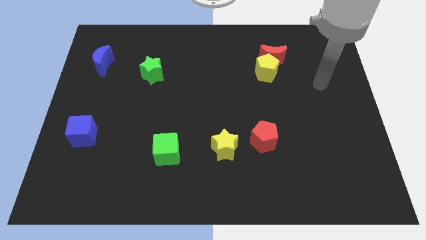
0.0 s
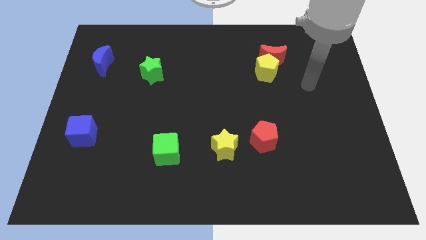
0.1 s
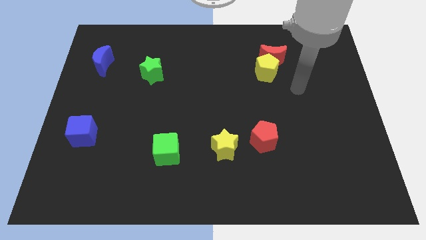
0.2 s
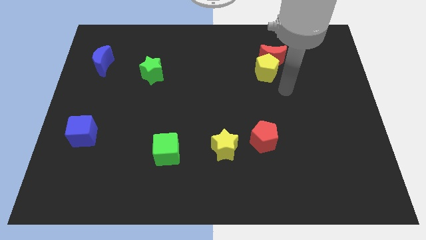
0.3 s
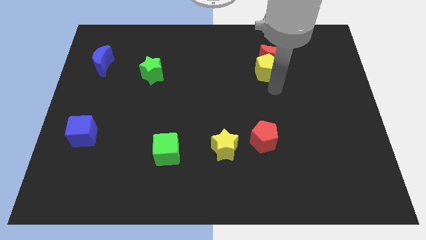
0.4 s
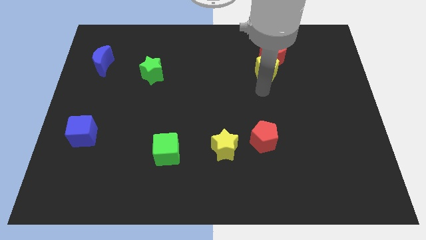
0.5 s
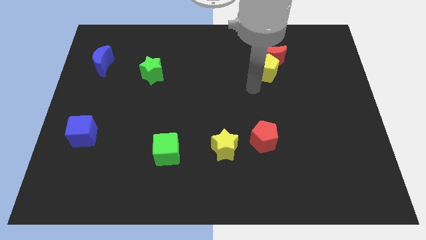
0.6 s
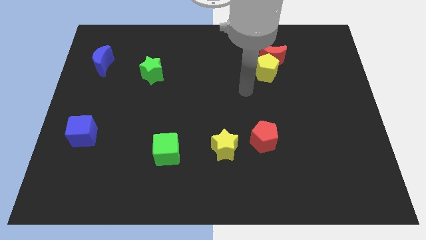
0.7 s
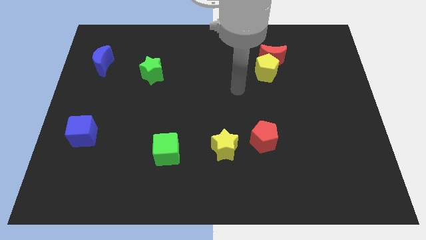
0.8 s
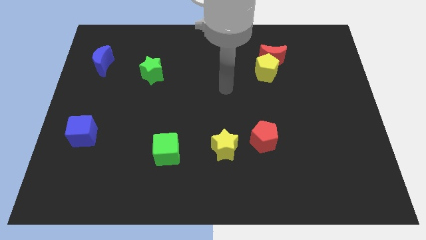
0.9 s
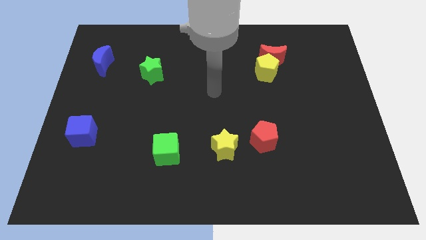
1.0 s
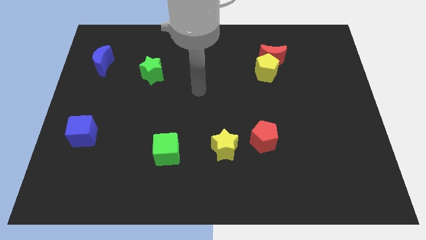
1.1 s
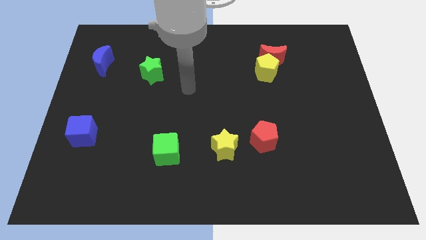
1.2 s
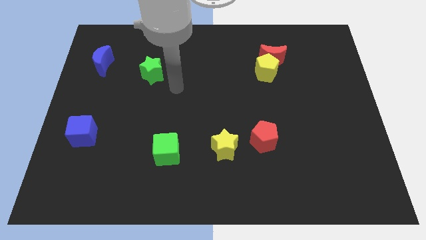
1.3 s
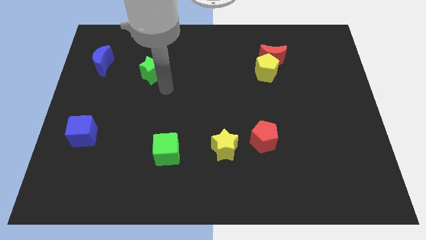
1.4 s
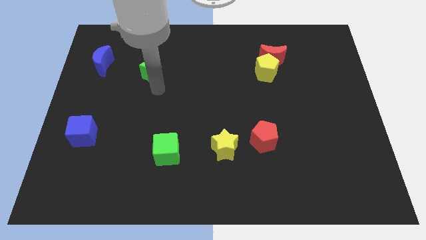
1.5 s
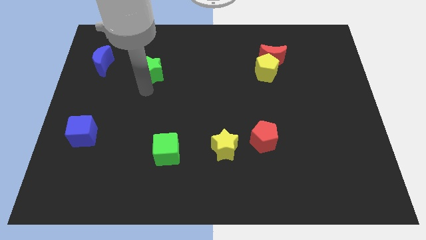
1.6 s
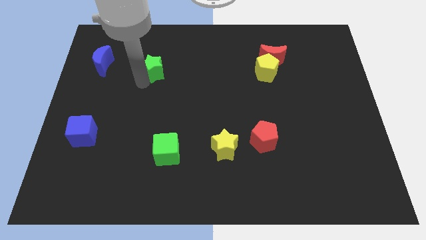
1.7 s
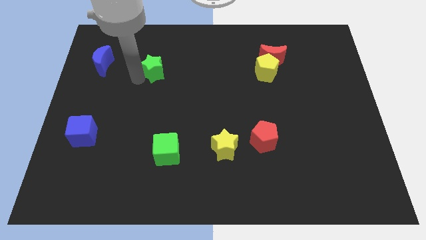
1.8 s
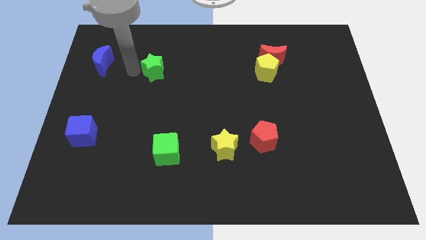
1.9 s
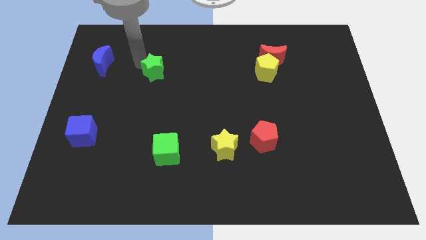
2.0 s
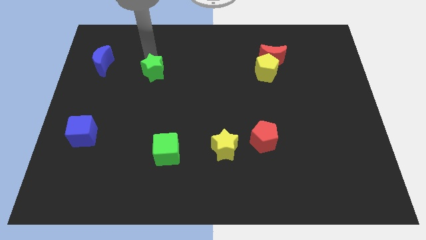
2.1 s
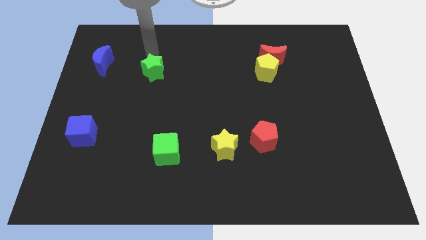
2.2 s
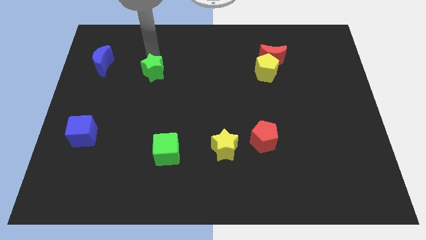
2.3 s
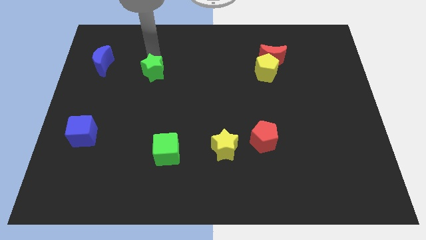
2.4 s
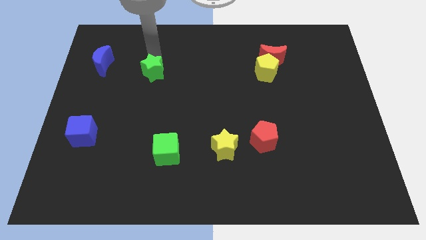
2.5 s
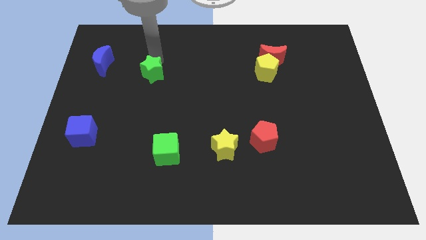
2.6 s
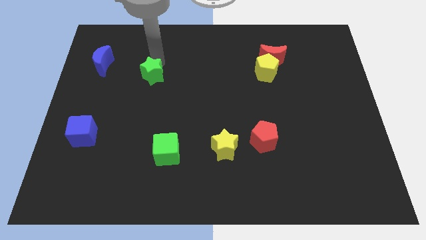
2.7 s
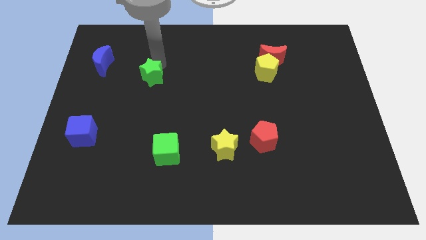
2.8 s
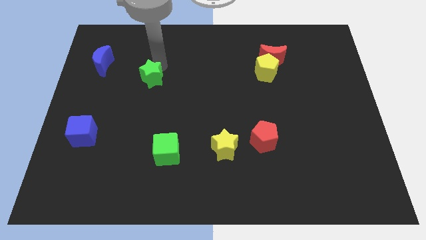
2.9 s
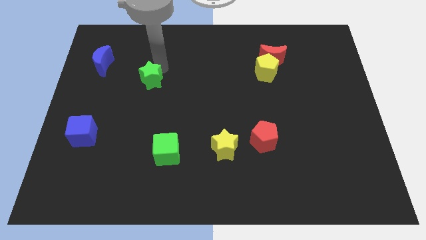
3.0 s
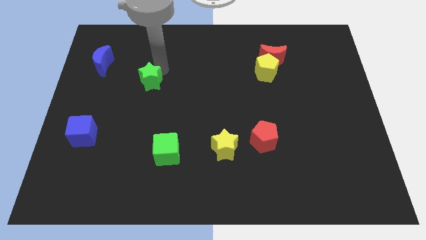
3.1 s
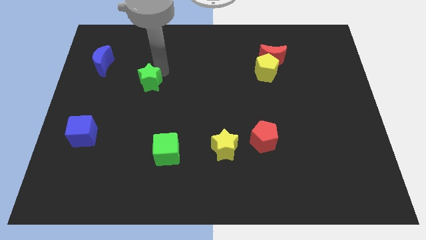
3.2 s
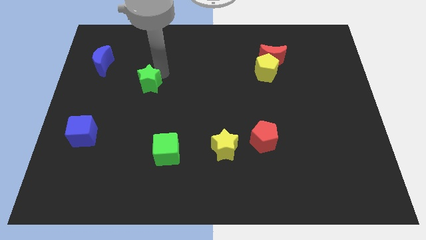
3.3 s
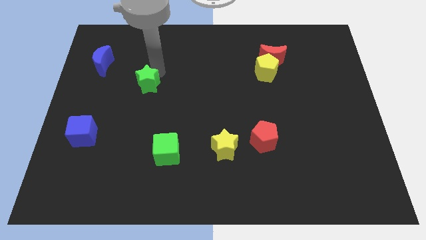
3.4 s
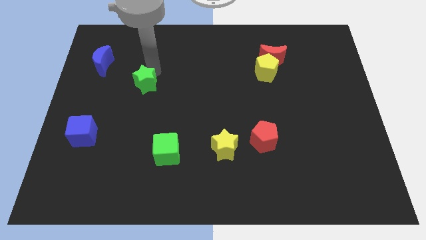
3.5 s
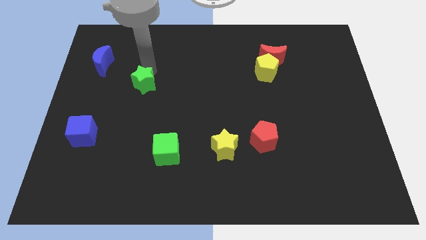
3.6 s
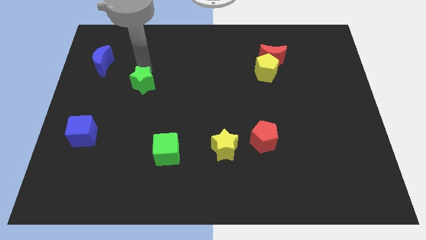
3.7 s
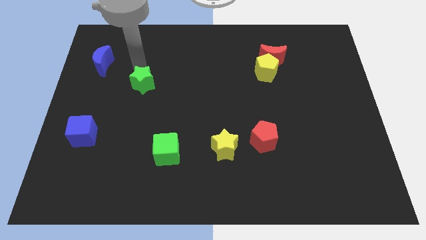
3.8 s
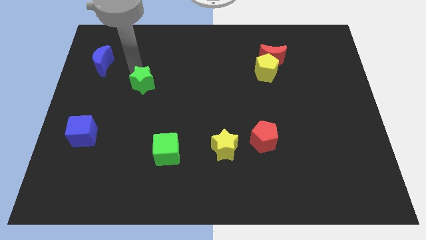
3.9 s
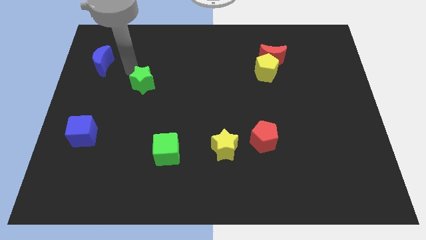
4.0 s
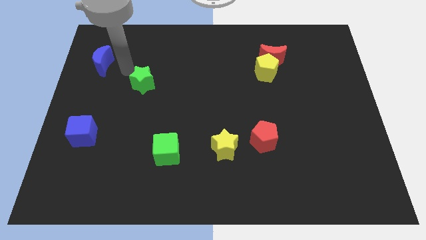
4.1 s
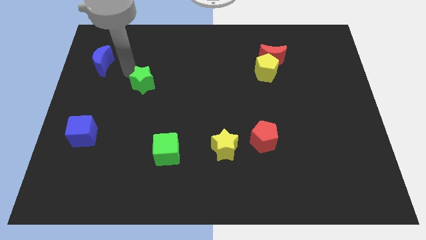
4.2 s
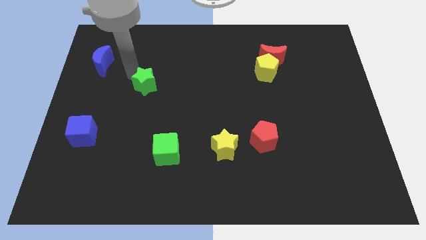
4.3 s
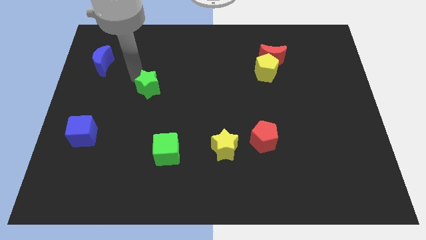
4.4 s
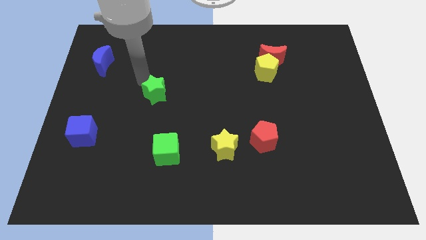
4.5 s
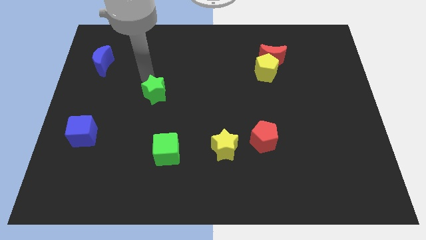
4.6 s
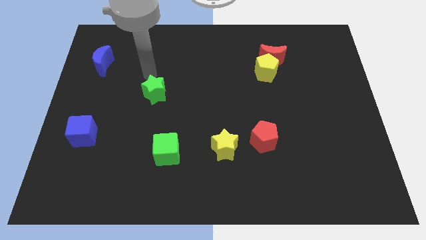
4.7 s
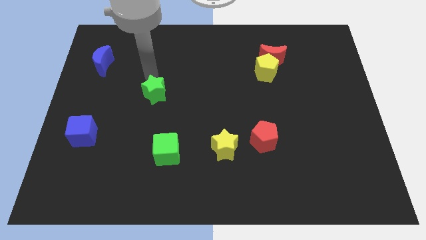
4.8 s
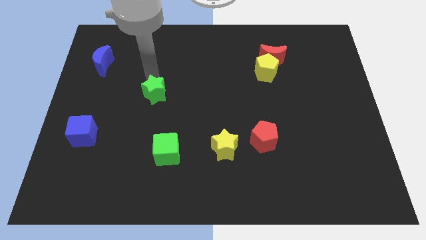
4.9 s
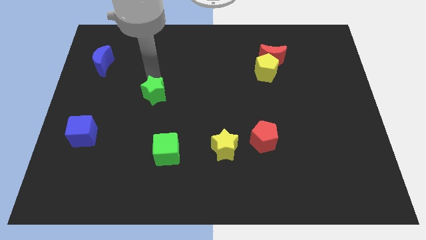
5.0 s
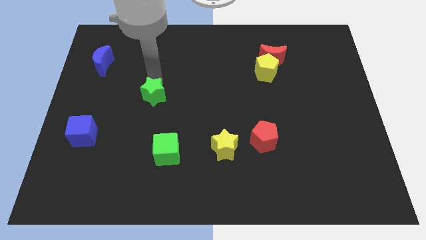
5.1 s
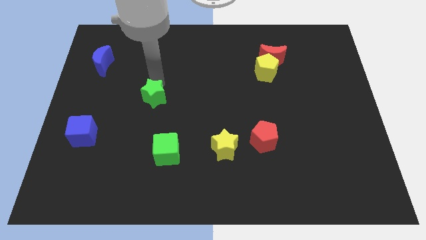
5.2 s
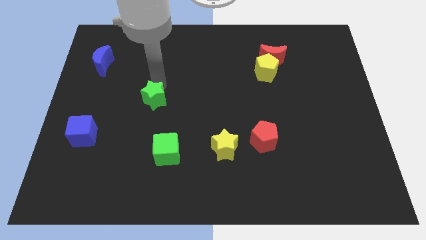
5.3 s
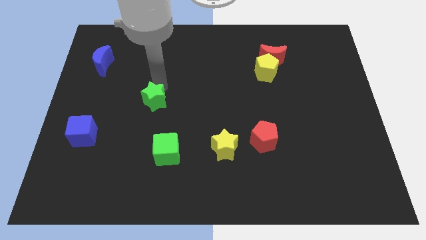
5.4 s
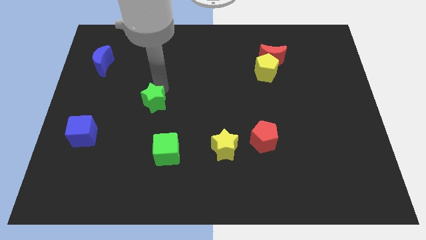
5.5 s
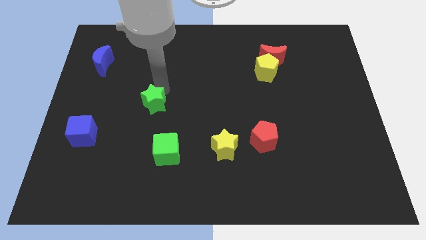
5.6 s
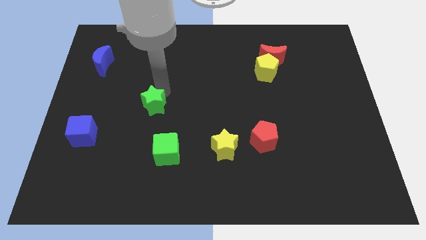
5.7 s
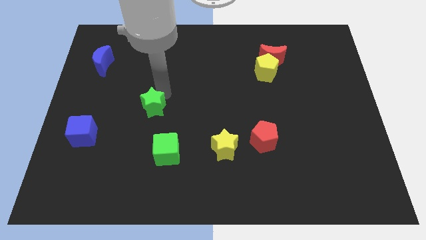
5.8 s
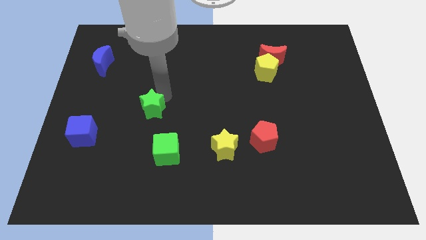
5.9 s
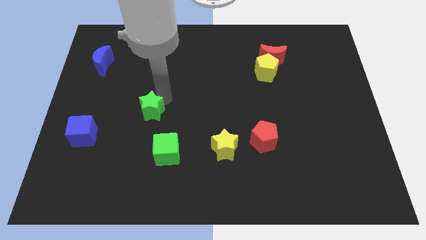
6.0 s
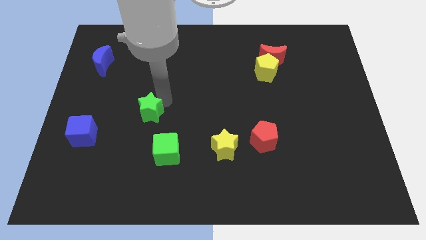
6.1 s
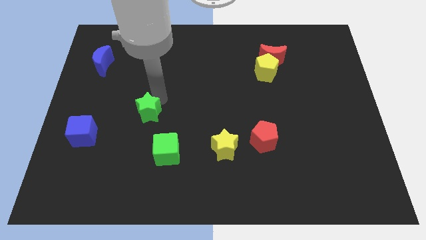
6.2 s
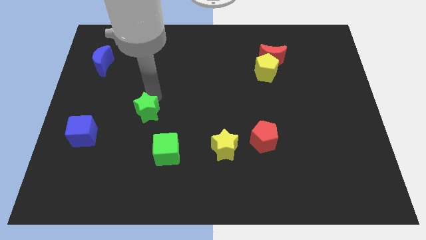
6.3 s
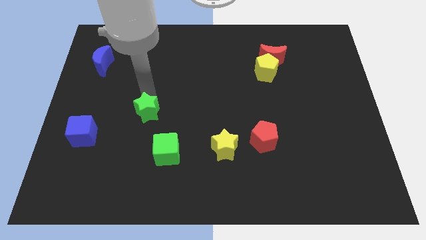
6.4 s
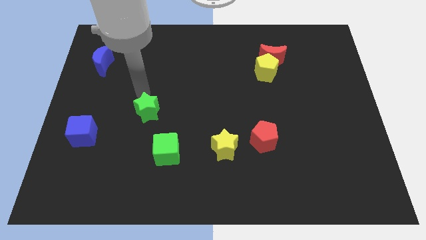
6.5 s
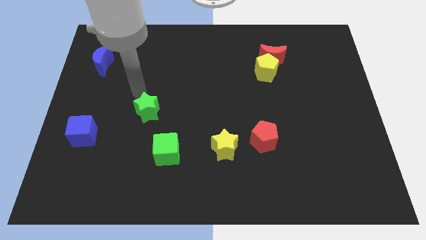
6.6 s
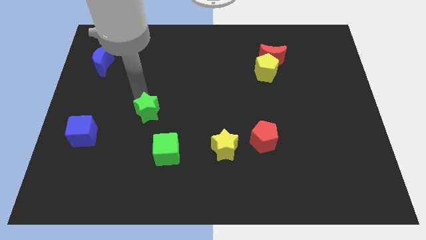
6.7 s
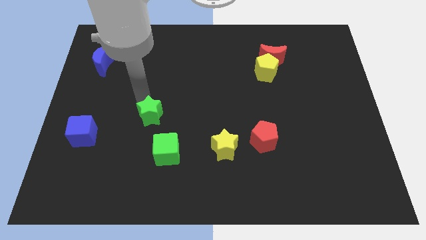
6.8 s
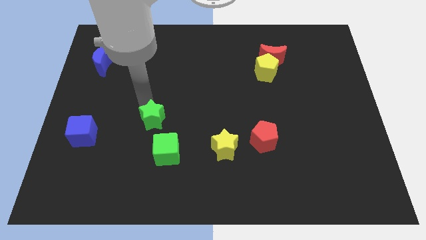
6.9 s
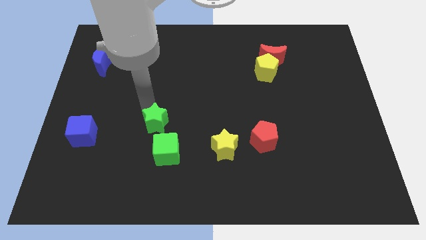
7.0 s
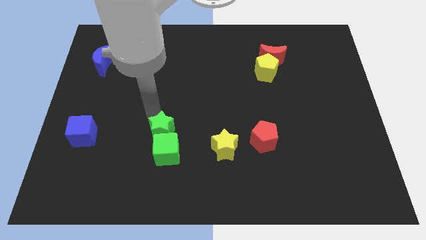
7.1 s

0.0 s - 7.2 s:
slide the green star towards the green cube

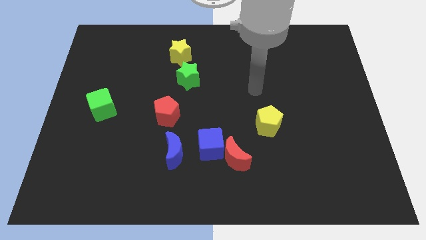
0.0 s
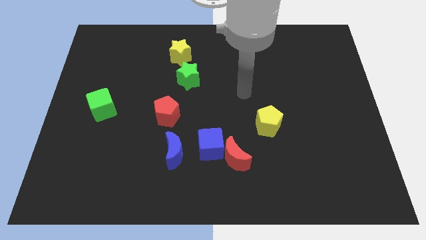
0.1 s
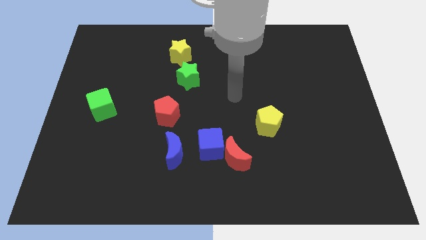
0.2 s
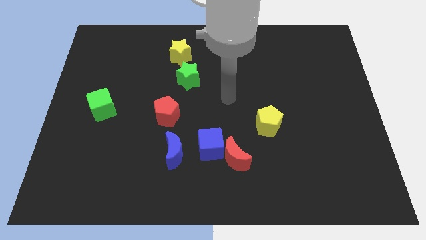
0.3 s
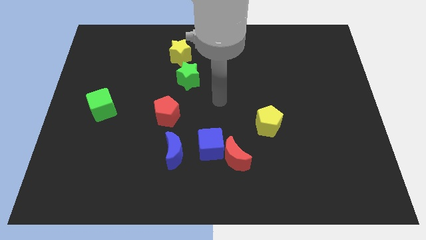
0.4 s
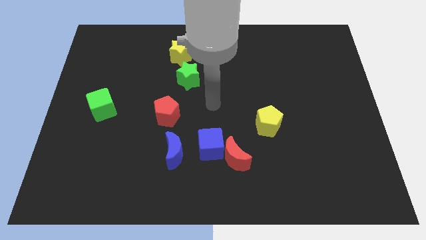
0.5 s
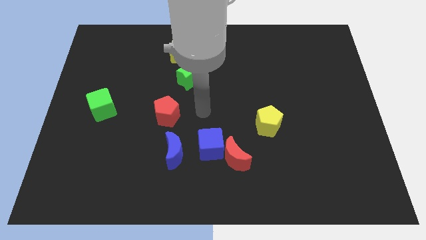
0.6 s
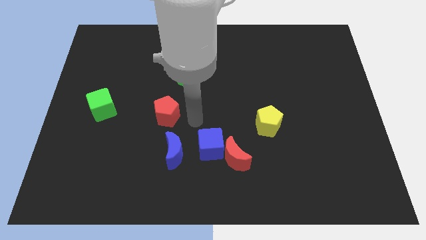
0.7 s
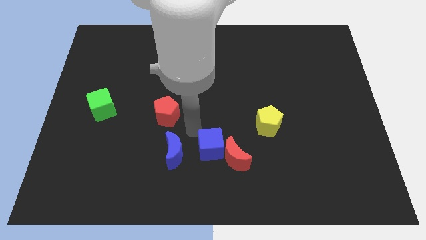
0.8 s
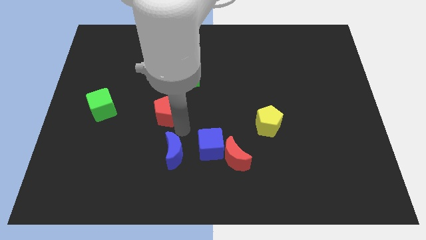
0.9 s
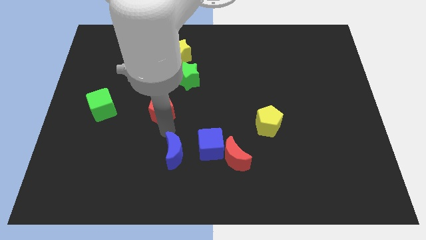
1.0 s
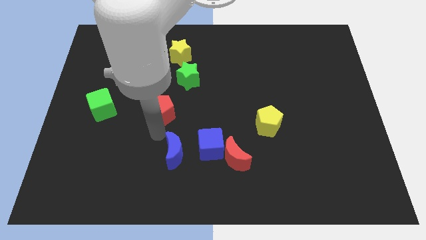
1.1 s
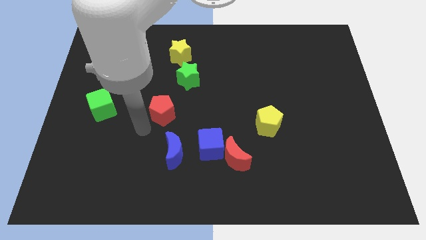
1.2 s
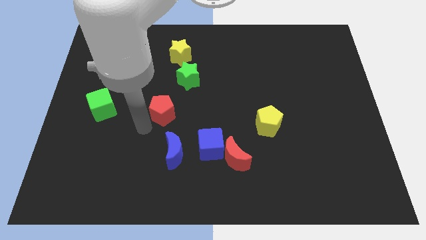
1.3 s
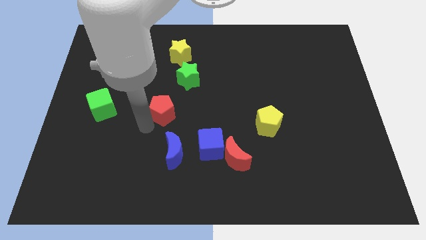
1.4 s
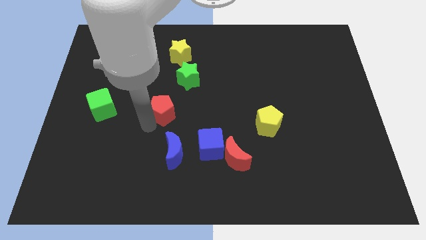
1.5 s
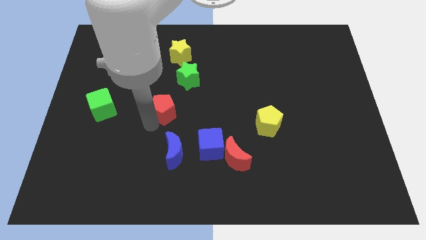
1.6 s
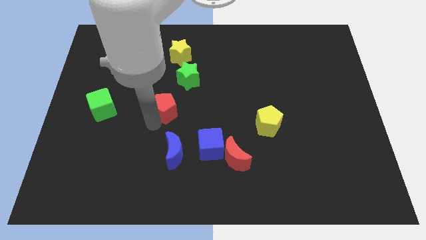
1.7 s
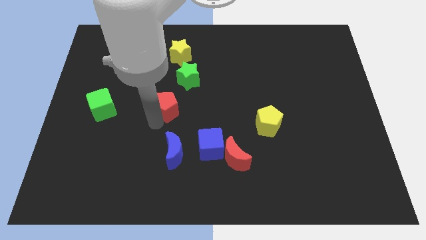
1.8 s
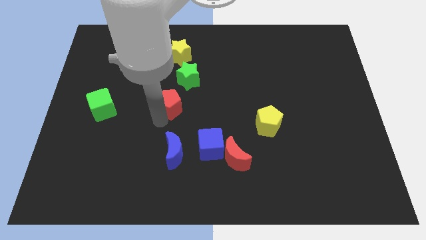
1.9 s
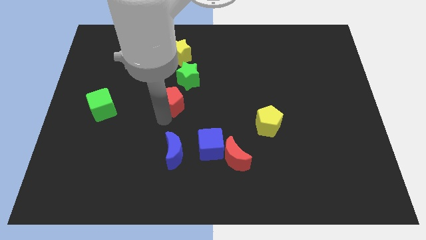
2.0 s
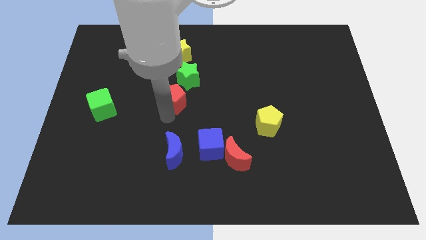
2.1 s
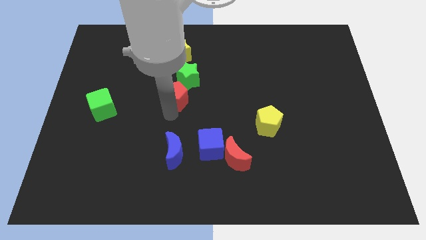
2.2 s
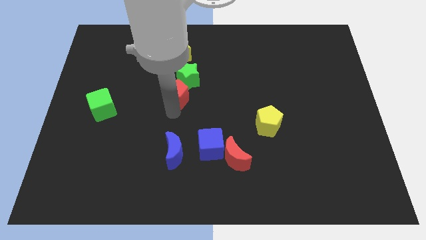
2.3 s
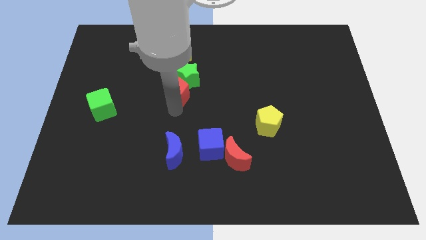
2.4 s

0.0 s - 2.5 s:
move the red pentagon towards the green star
